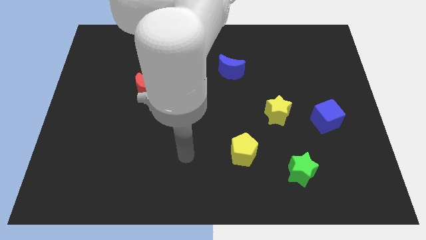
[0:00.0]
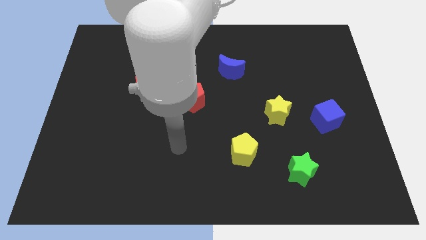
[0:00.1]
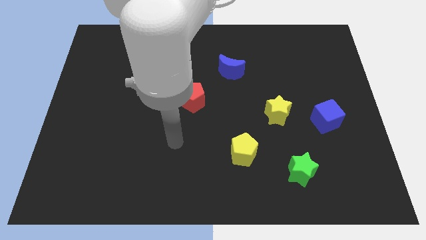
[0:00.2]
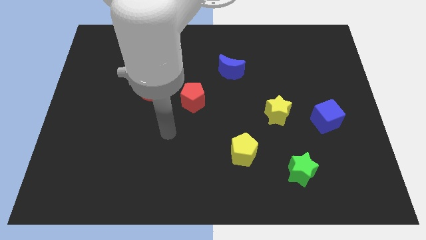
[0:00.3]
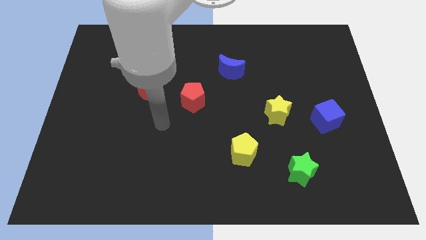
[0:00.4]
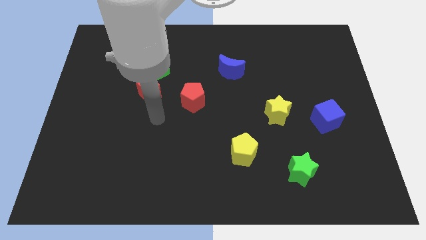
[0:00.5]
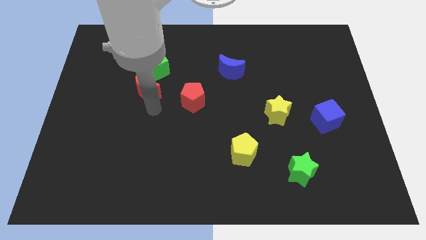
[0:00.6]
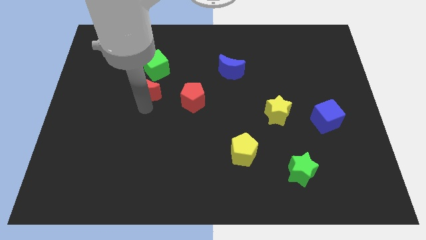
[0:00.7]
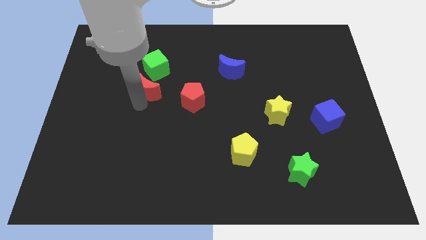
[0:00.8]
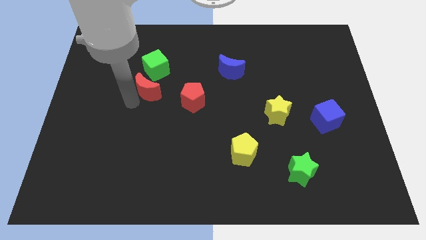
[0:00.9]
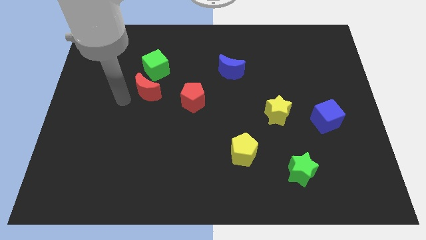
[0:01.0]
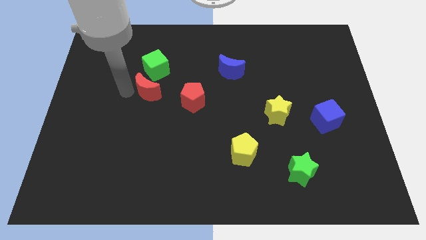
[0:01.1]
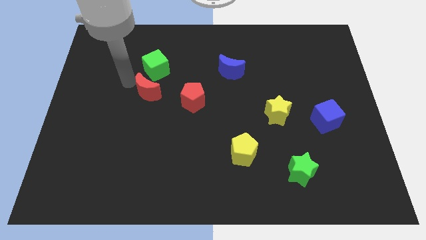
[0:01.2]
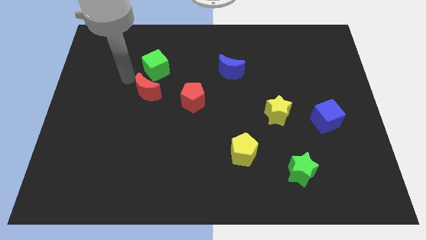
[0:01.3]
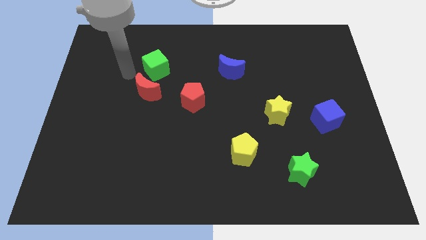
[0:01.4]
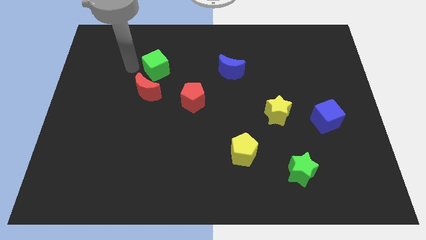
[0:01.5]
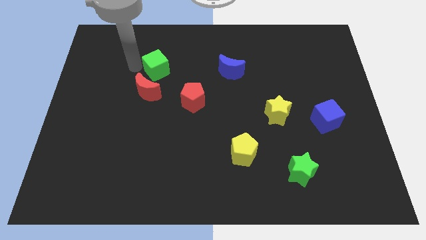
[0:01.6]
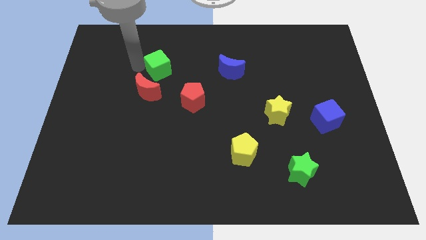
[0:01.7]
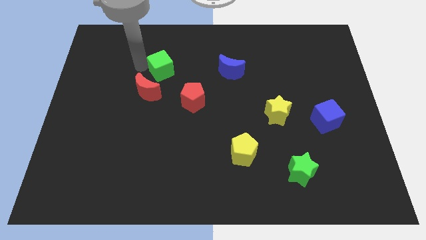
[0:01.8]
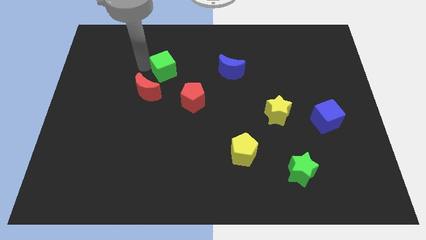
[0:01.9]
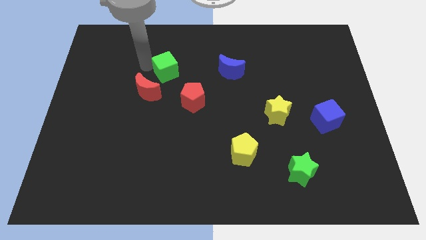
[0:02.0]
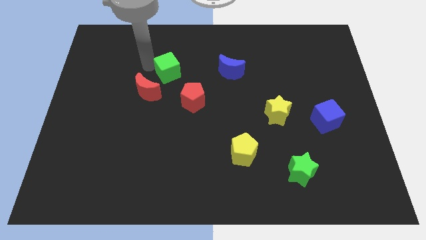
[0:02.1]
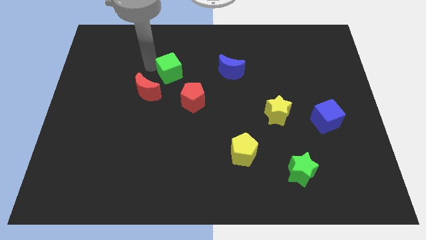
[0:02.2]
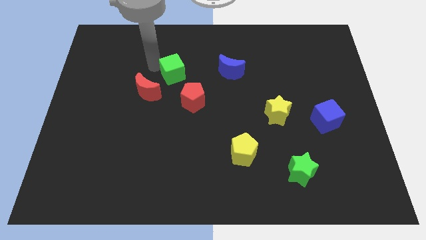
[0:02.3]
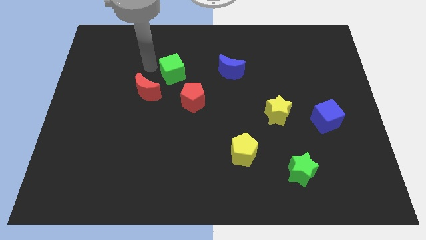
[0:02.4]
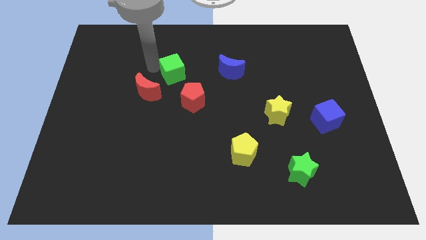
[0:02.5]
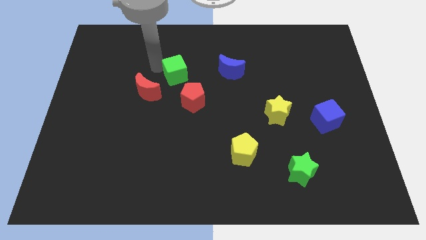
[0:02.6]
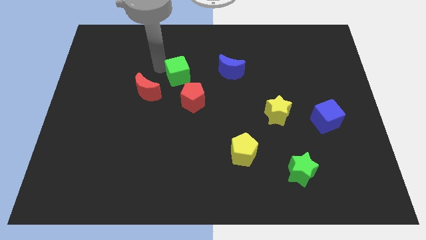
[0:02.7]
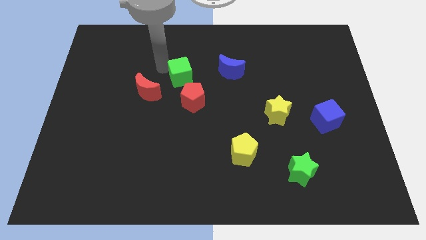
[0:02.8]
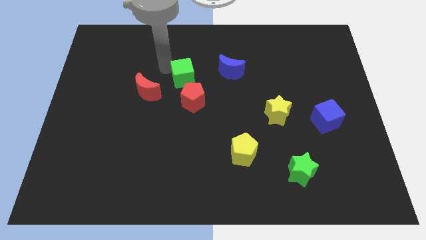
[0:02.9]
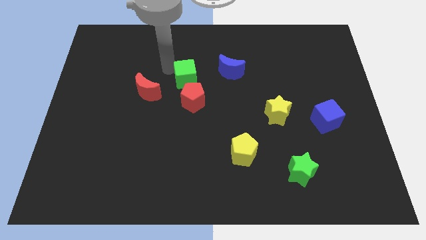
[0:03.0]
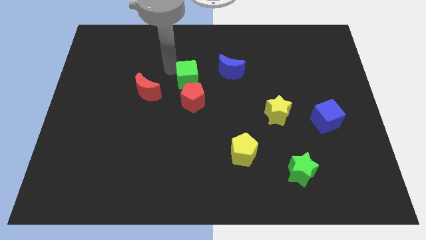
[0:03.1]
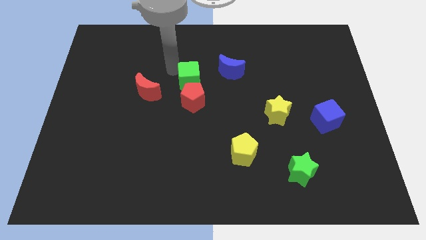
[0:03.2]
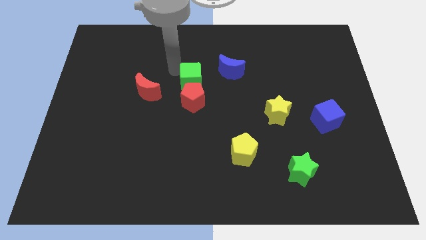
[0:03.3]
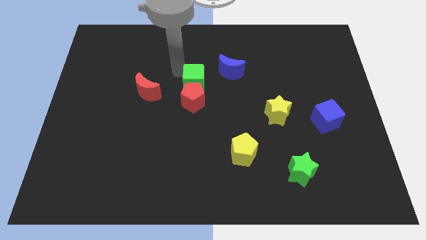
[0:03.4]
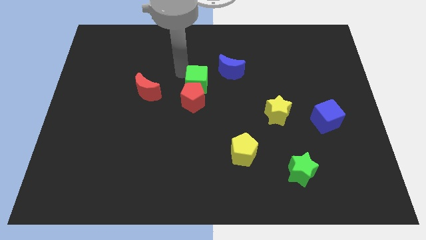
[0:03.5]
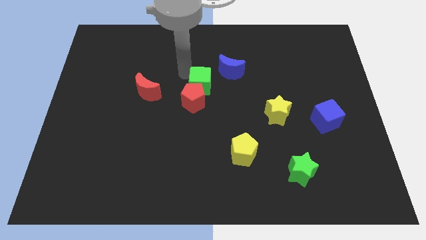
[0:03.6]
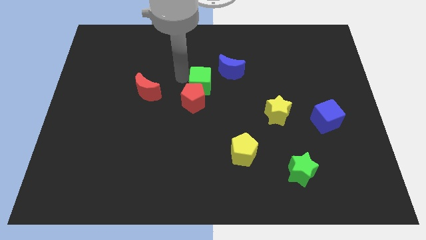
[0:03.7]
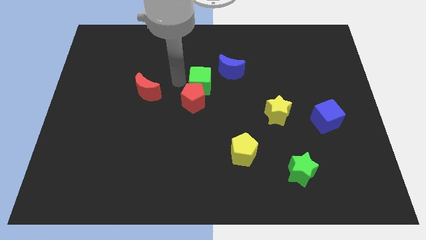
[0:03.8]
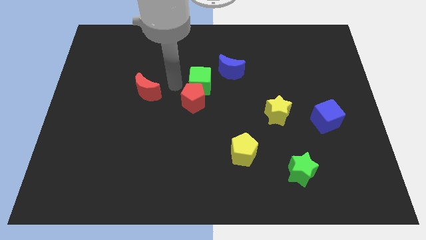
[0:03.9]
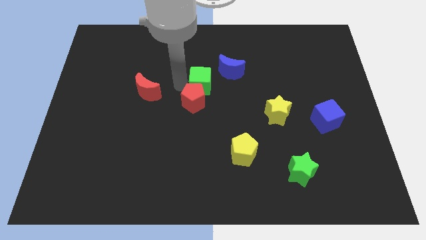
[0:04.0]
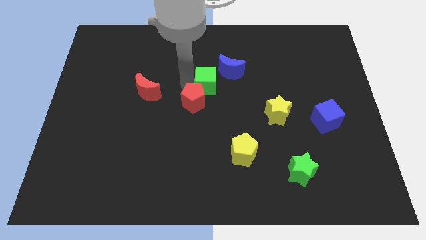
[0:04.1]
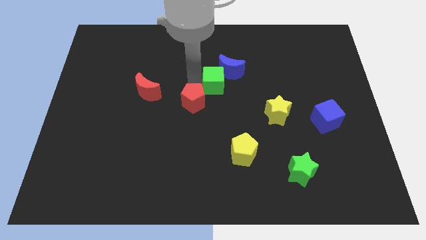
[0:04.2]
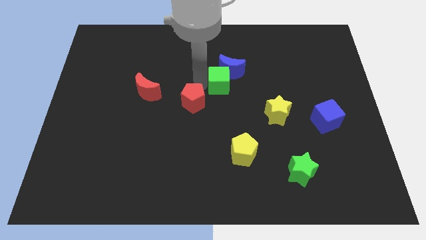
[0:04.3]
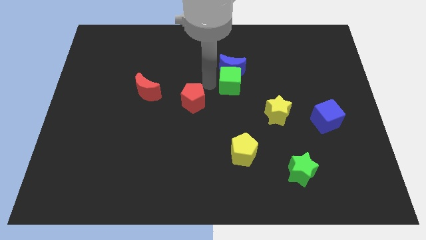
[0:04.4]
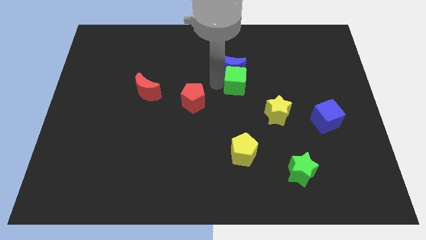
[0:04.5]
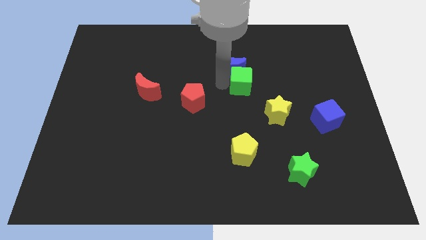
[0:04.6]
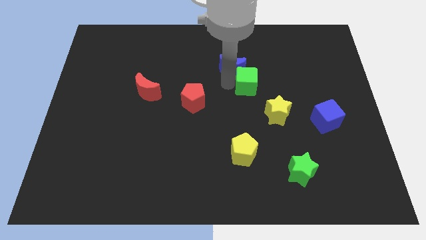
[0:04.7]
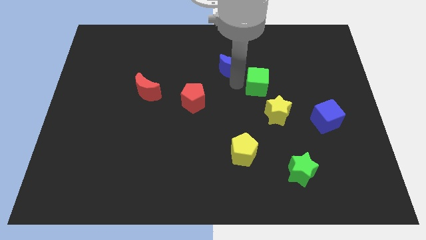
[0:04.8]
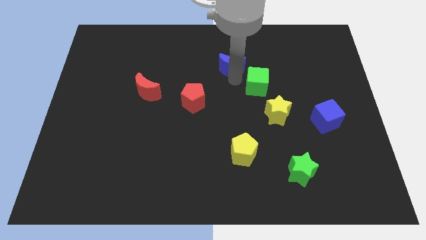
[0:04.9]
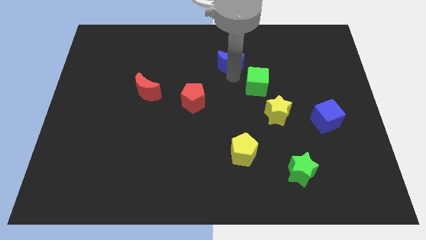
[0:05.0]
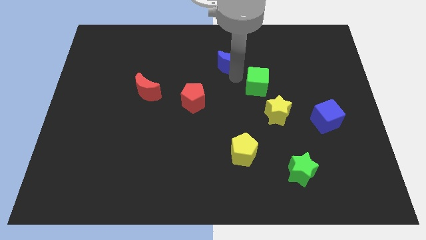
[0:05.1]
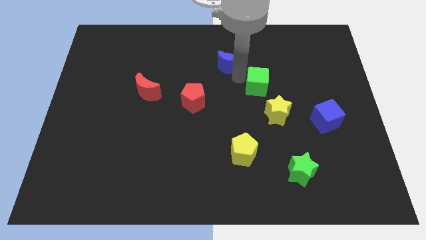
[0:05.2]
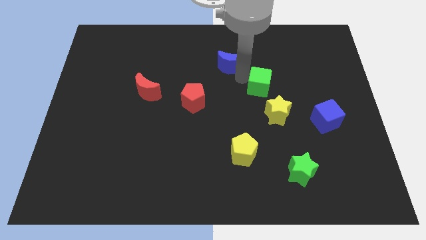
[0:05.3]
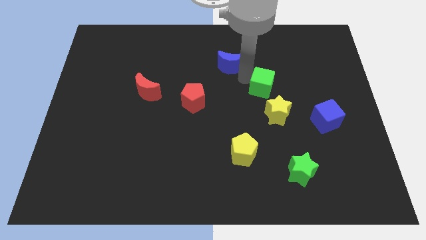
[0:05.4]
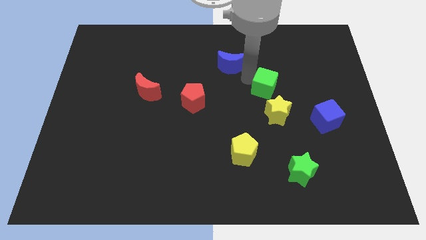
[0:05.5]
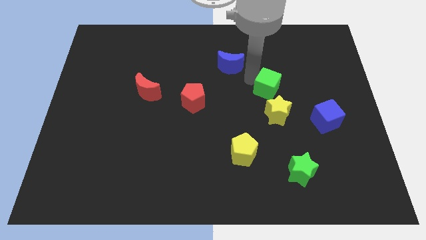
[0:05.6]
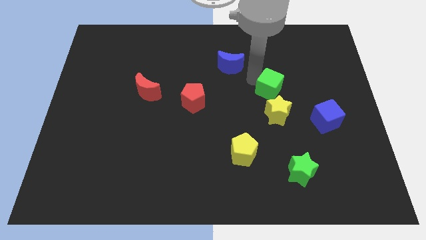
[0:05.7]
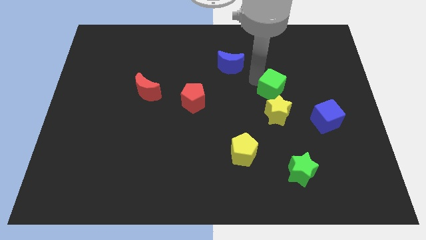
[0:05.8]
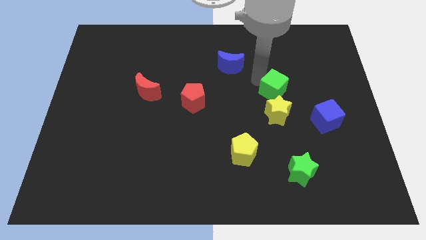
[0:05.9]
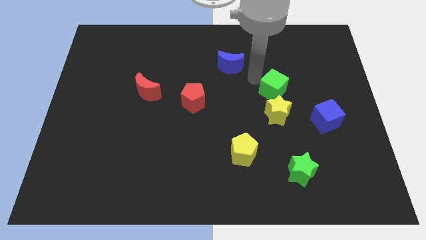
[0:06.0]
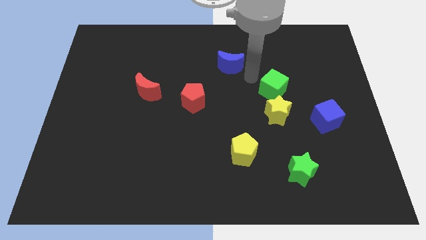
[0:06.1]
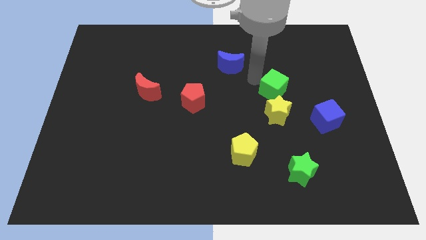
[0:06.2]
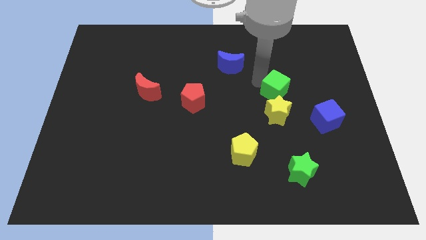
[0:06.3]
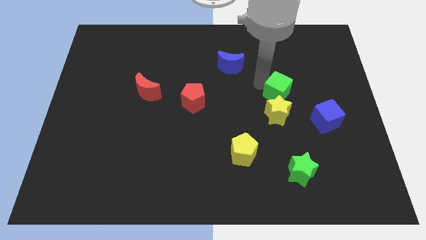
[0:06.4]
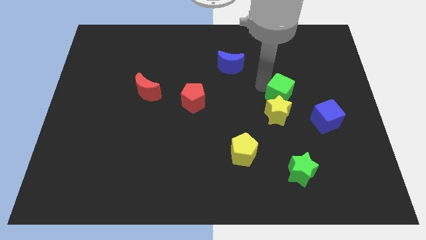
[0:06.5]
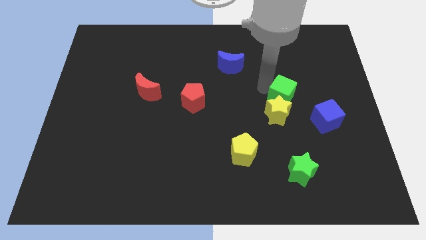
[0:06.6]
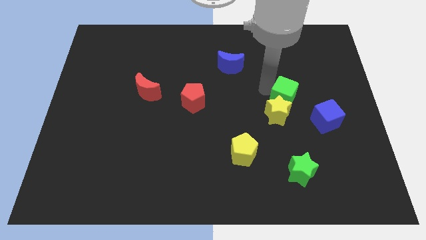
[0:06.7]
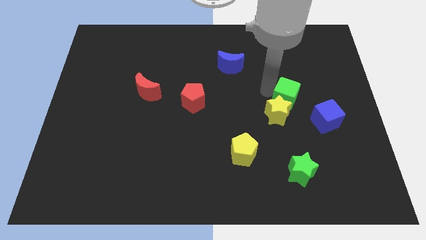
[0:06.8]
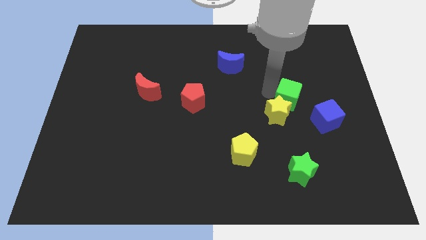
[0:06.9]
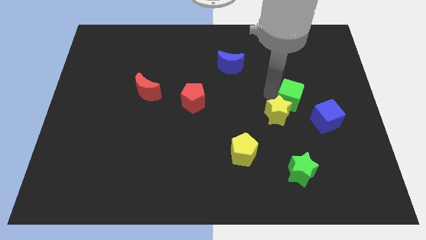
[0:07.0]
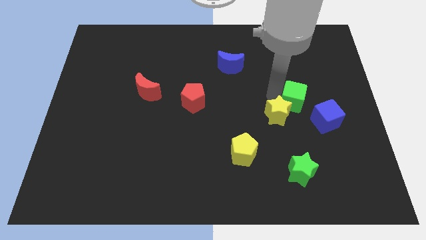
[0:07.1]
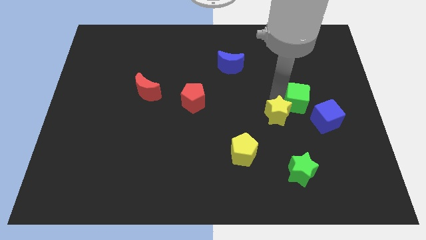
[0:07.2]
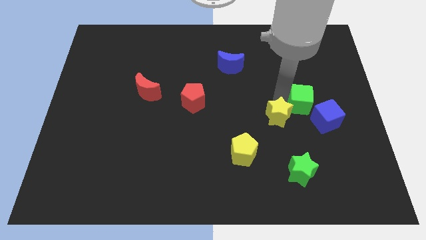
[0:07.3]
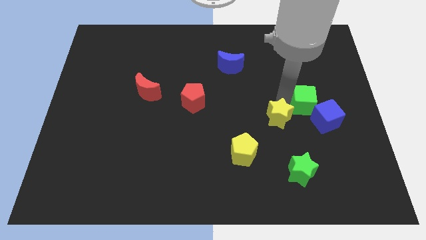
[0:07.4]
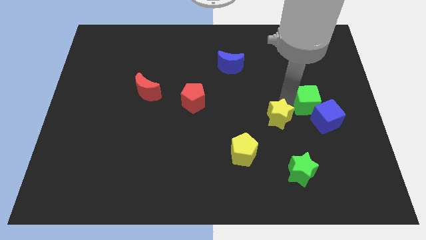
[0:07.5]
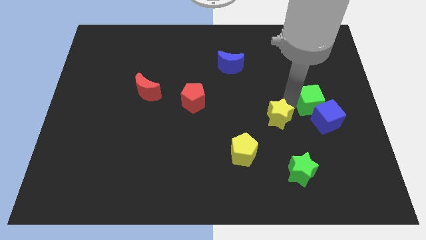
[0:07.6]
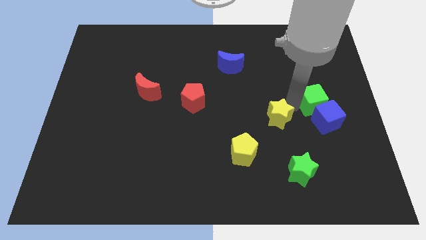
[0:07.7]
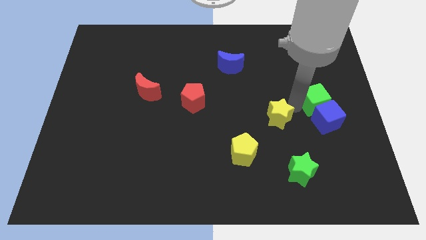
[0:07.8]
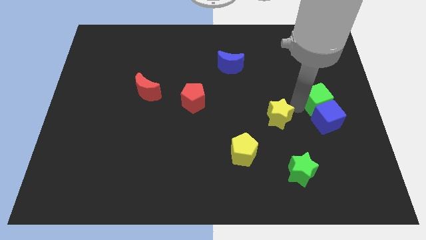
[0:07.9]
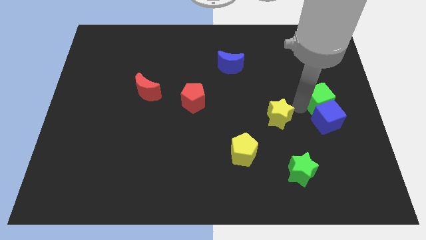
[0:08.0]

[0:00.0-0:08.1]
slide the green cube to the right side
